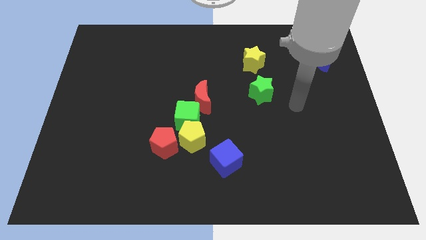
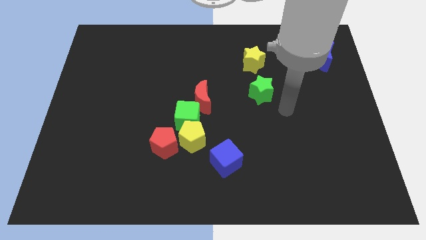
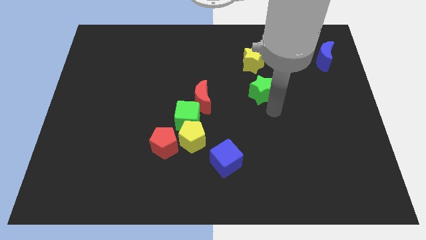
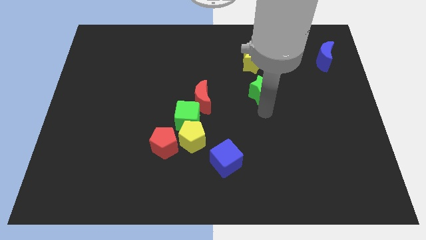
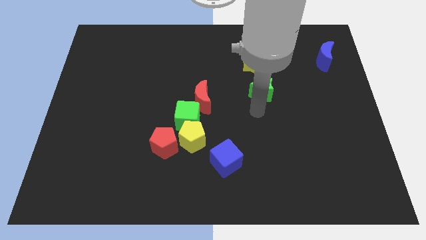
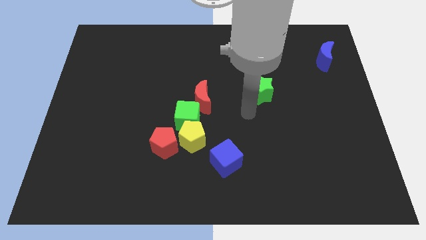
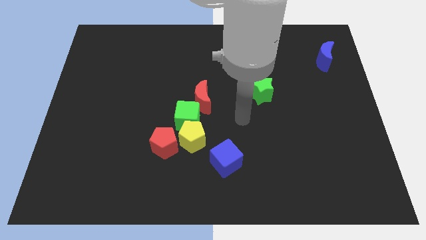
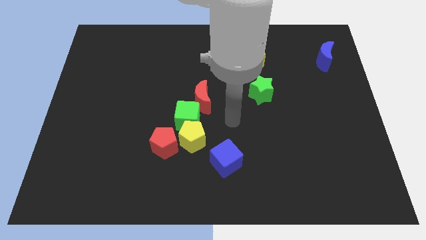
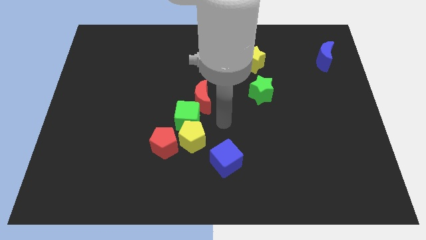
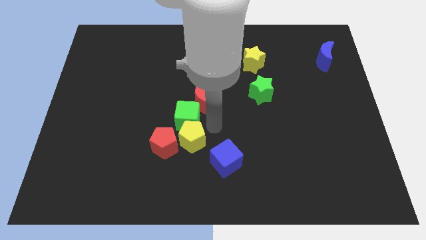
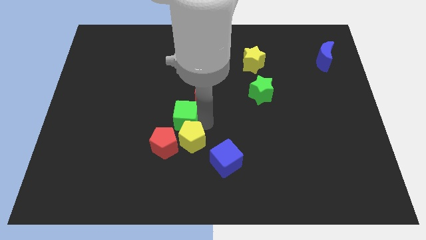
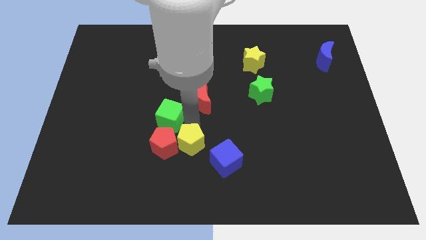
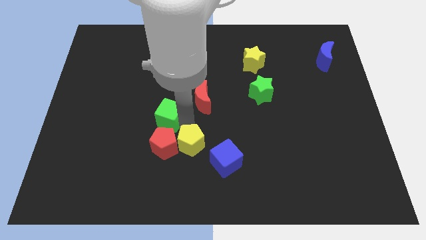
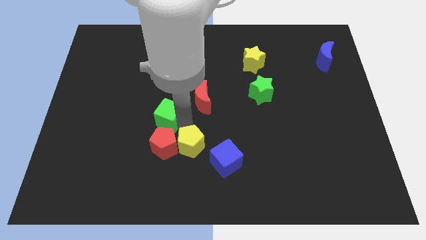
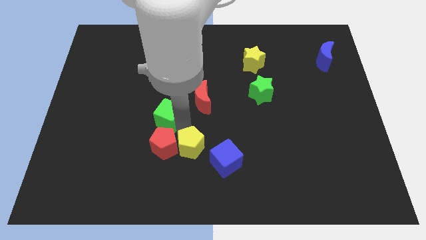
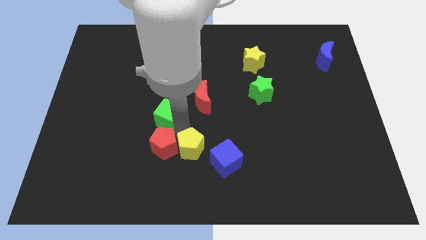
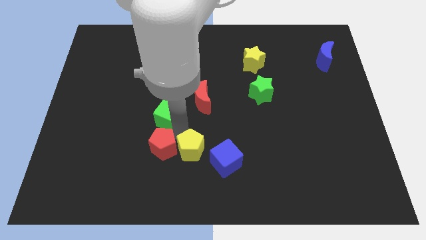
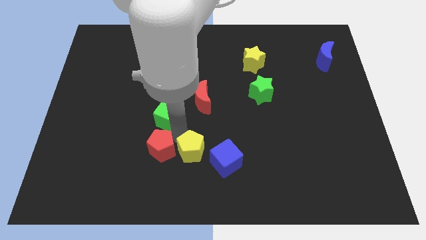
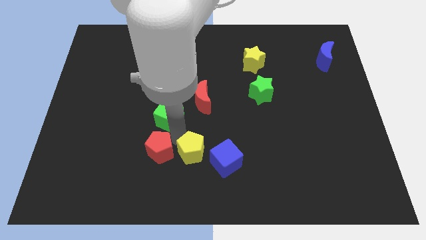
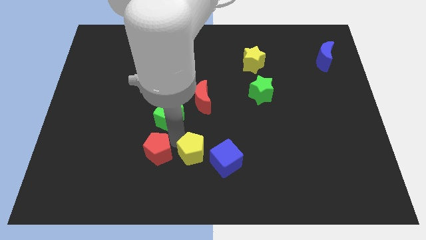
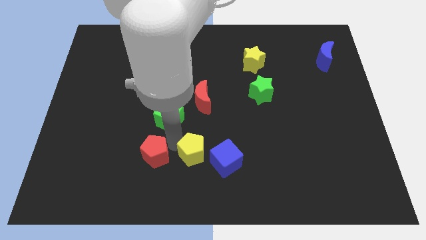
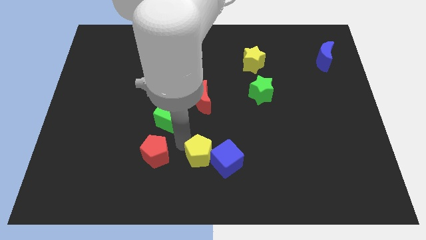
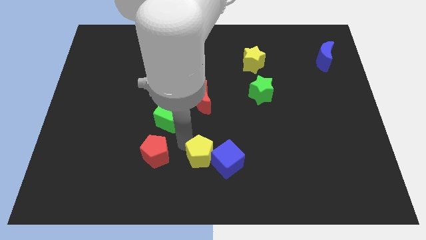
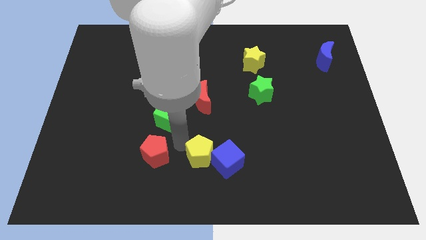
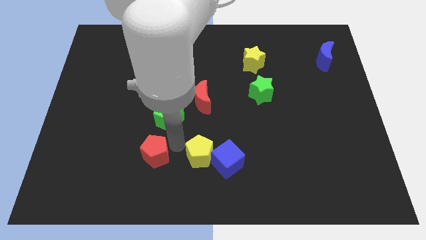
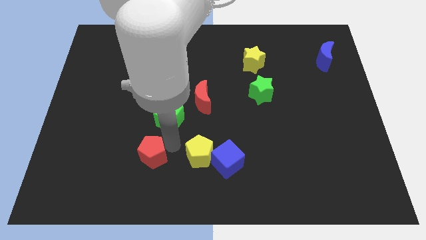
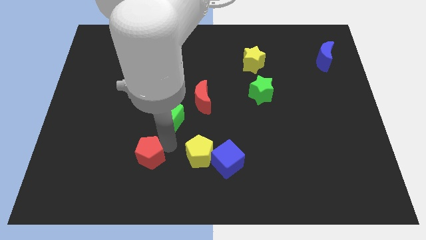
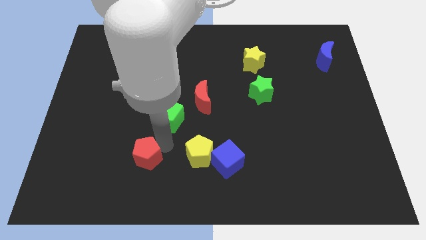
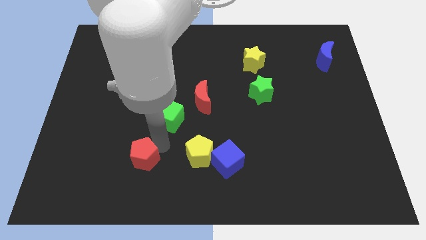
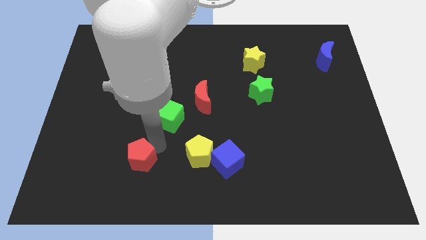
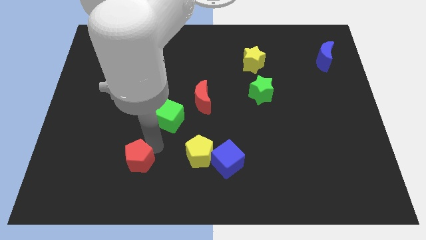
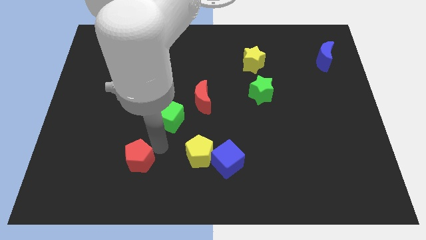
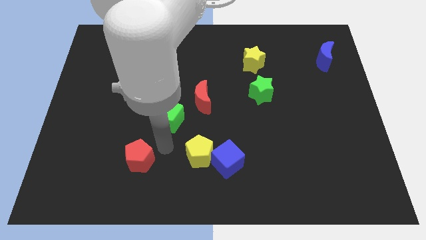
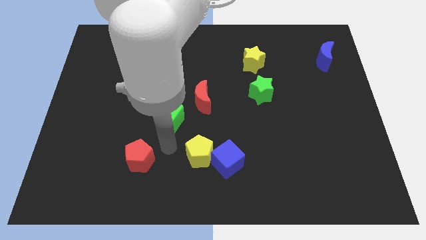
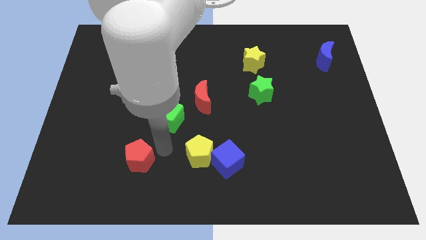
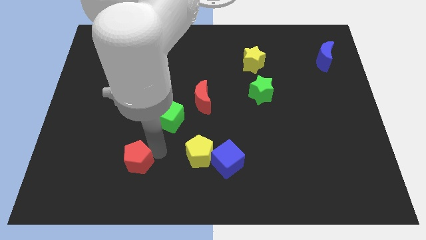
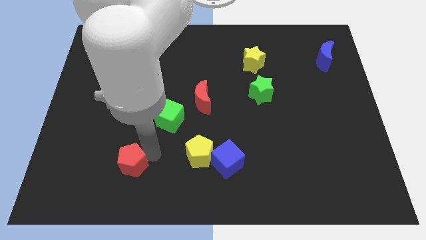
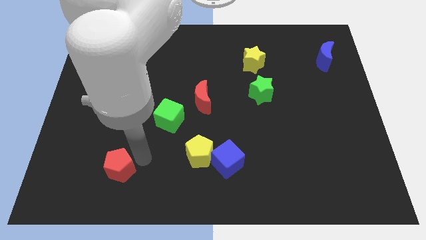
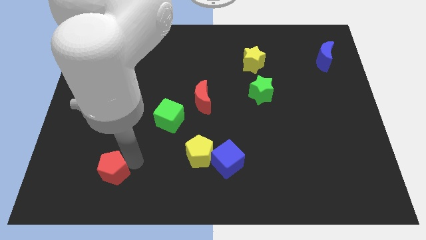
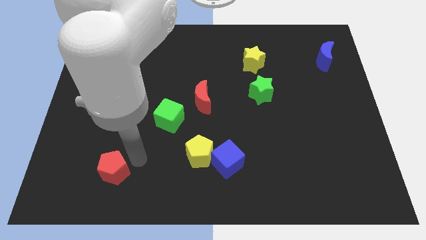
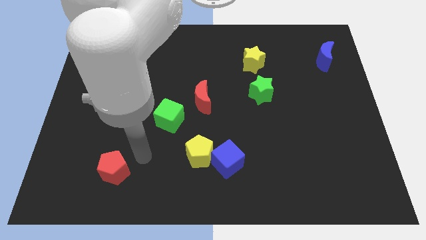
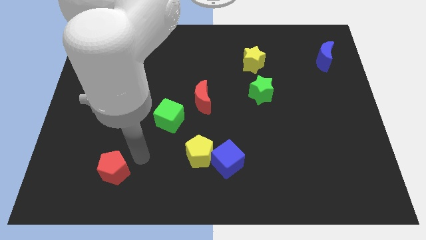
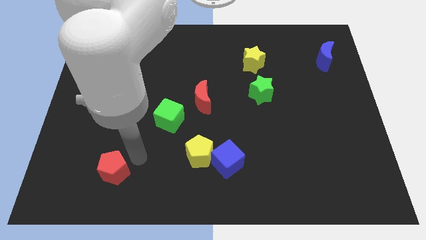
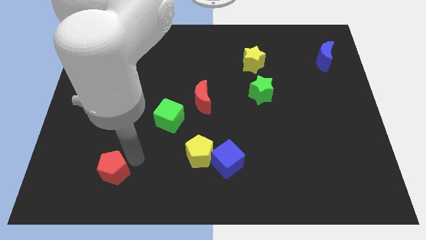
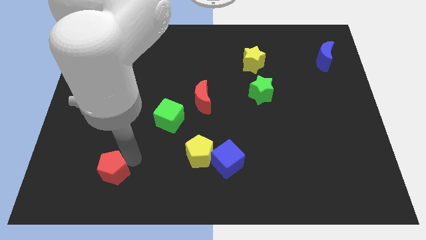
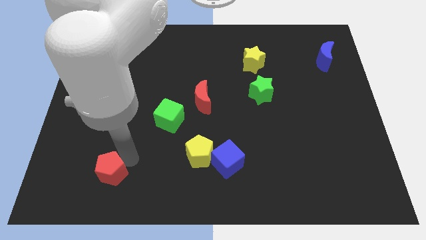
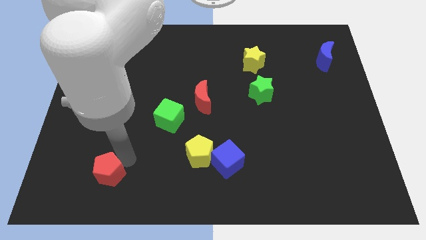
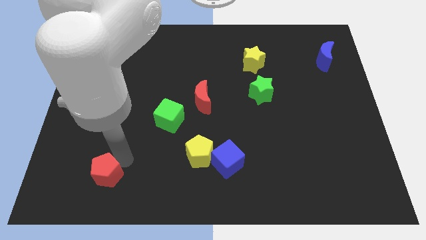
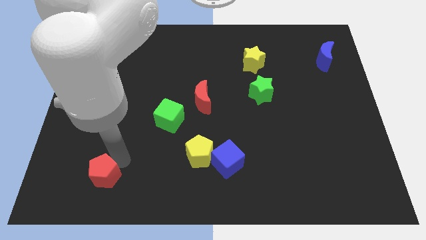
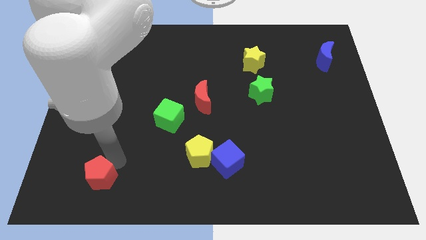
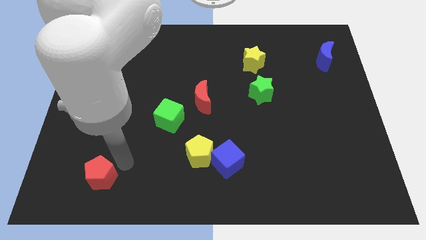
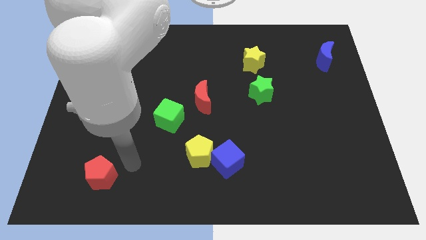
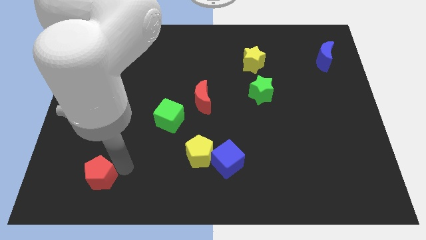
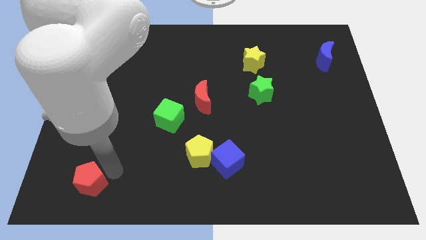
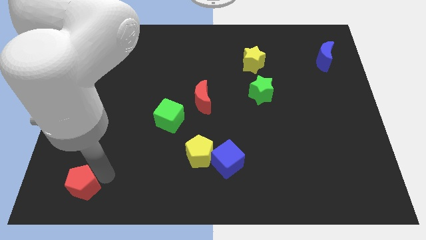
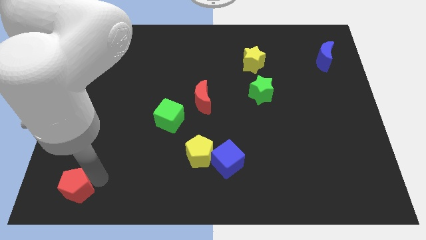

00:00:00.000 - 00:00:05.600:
push the red pentagon to the lower left corner
